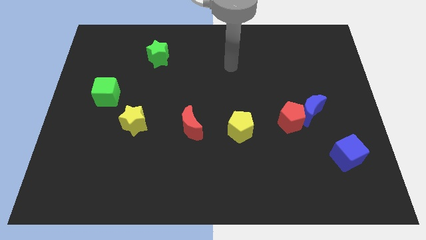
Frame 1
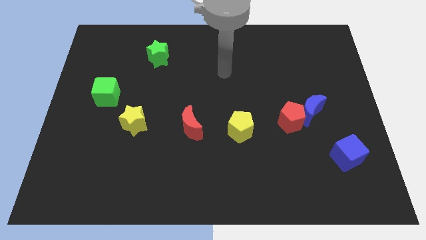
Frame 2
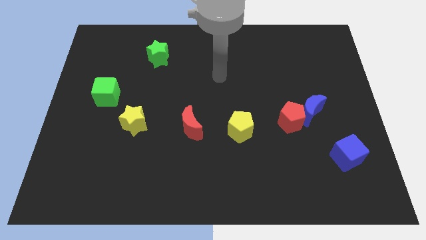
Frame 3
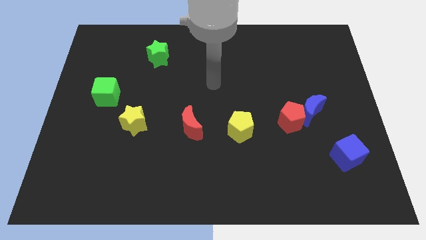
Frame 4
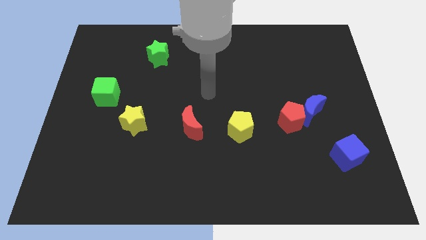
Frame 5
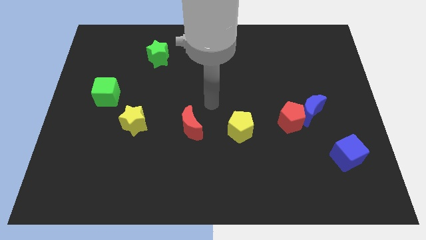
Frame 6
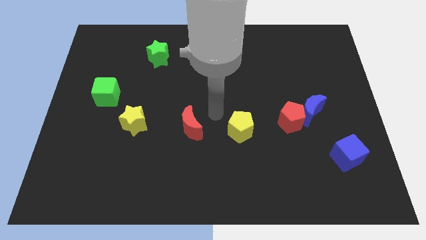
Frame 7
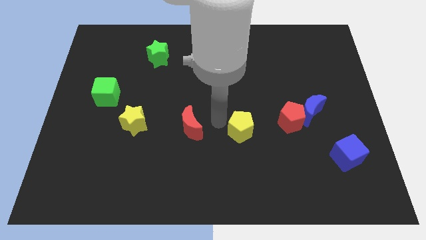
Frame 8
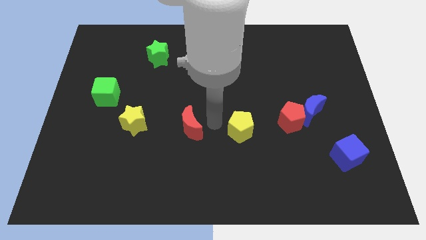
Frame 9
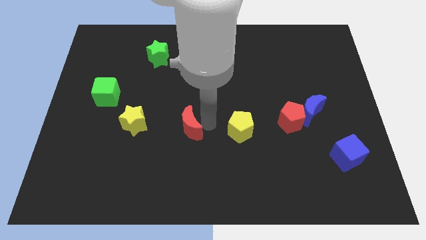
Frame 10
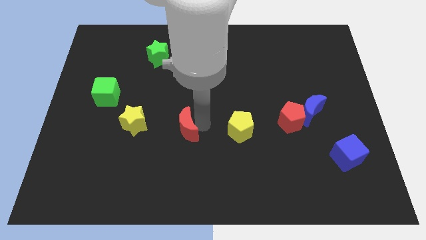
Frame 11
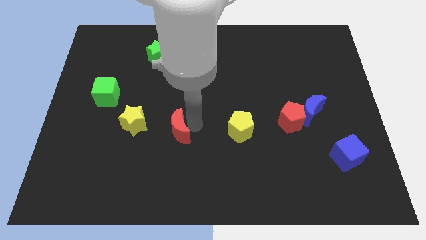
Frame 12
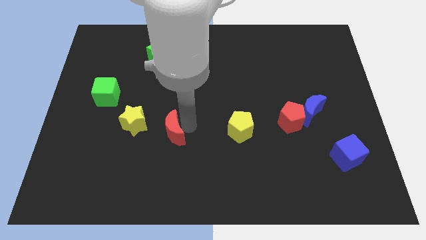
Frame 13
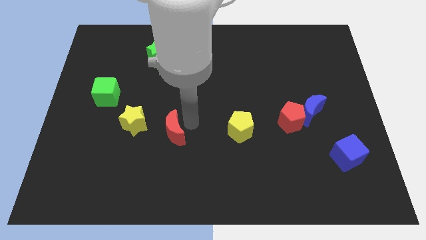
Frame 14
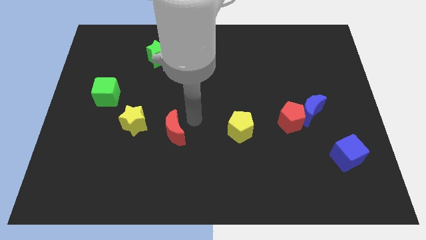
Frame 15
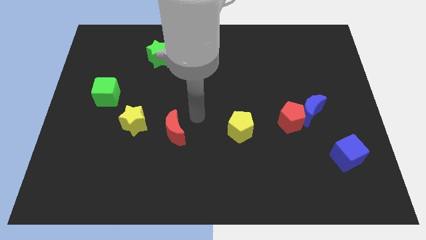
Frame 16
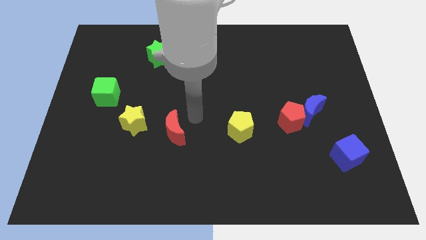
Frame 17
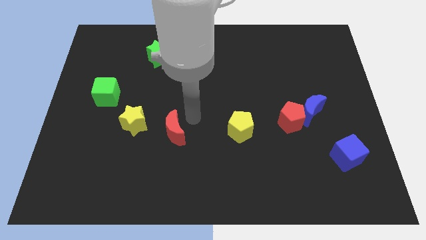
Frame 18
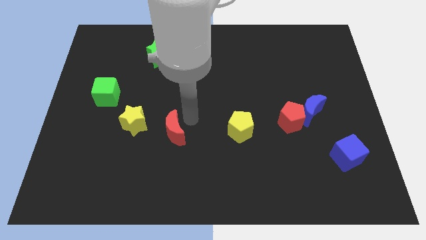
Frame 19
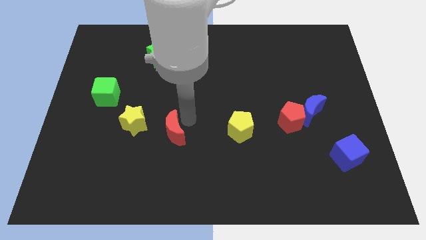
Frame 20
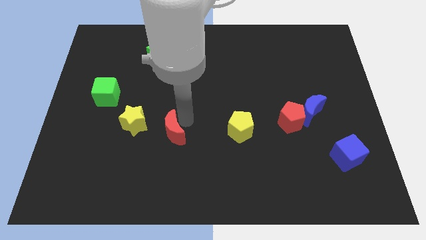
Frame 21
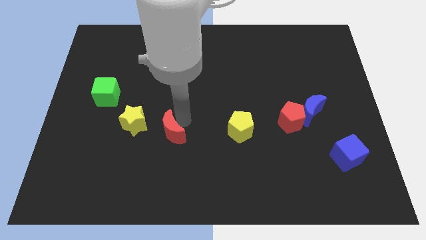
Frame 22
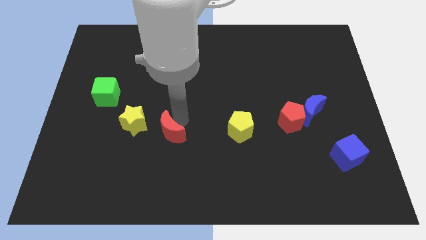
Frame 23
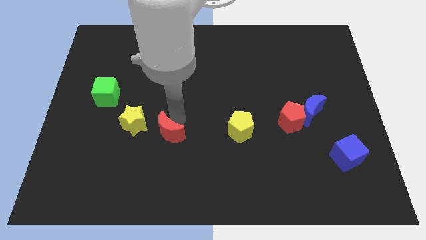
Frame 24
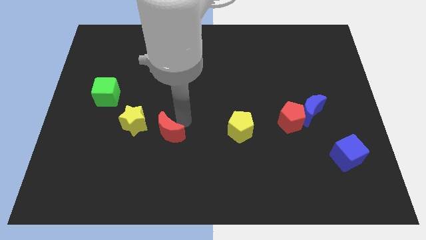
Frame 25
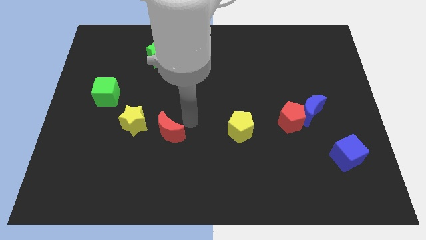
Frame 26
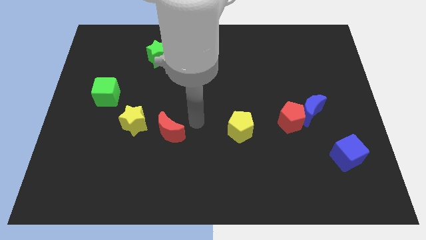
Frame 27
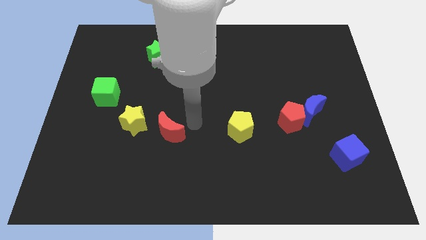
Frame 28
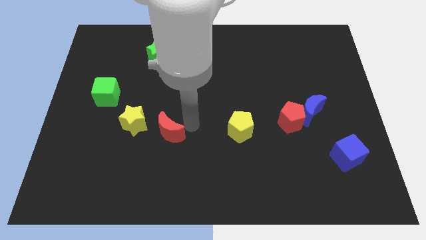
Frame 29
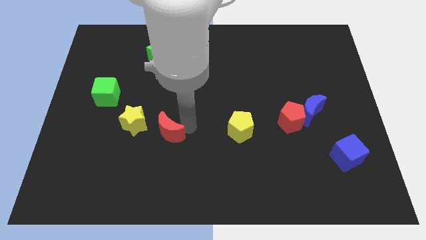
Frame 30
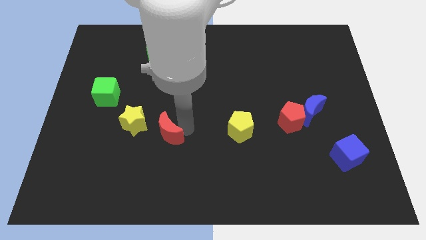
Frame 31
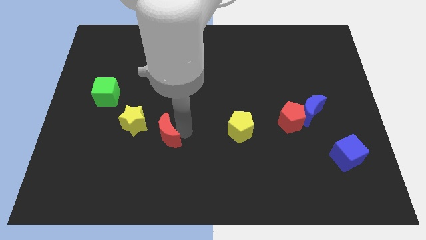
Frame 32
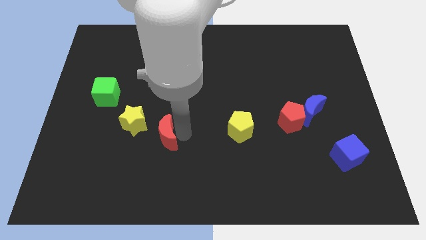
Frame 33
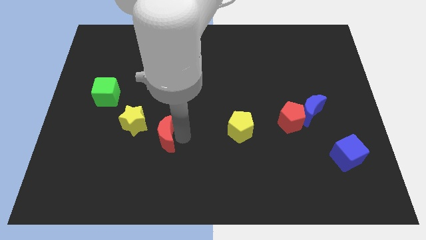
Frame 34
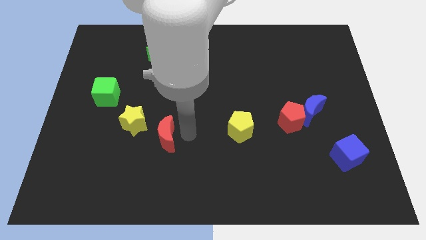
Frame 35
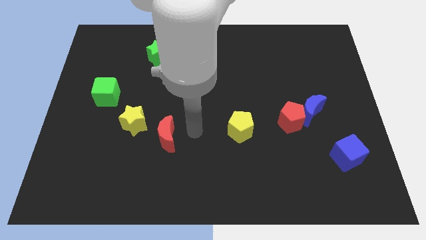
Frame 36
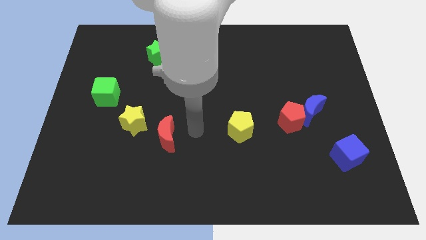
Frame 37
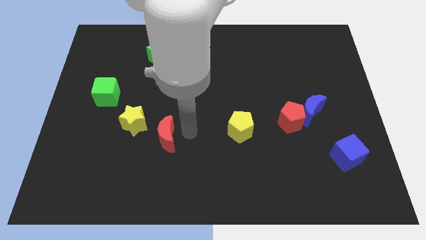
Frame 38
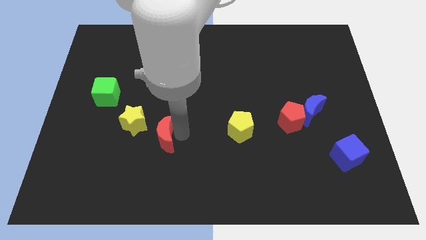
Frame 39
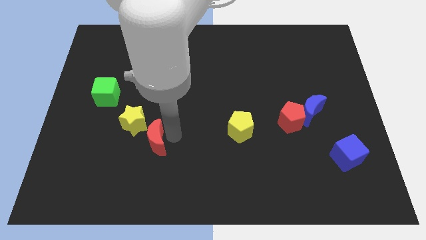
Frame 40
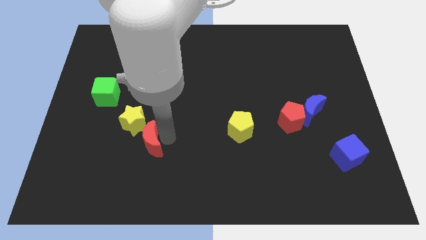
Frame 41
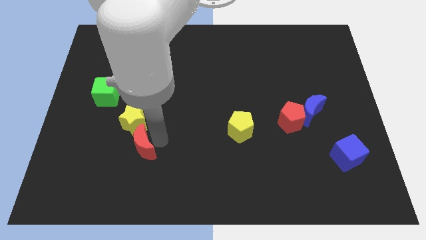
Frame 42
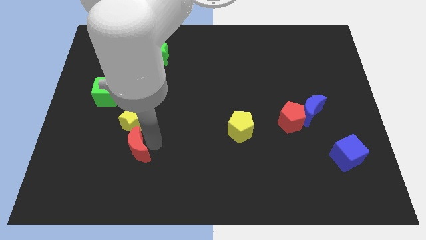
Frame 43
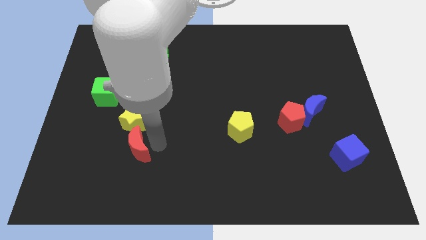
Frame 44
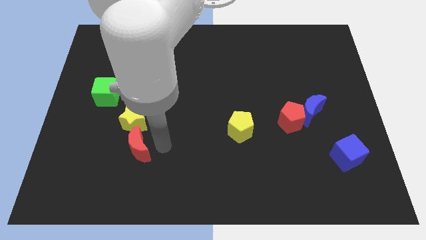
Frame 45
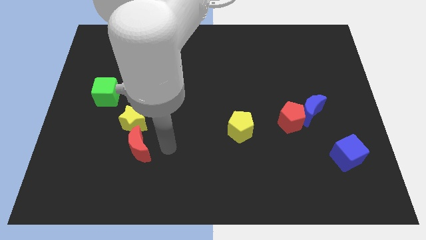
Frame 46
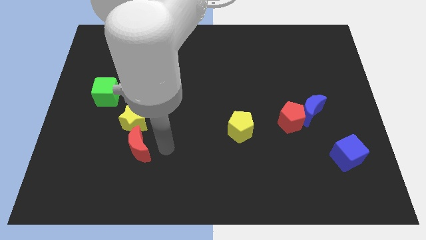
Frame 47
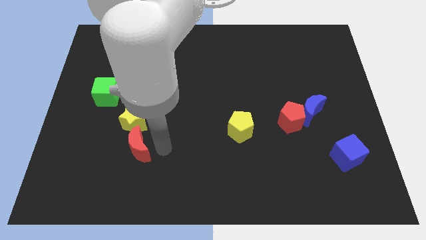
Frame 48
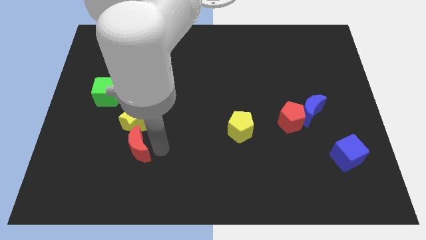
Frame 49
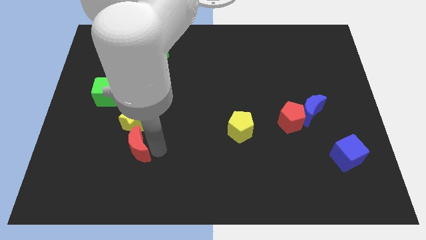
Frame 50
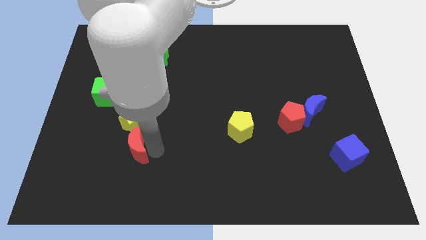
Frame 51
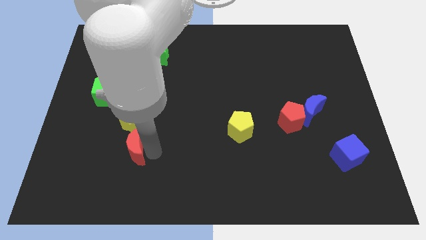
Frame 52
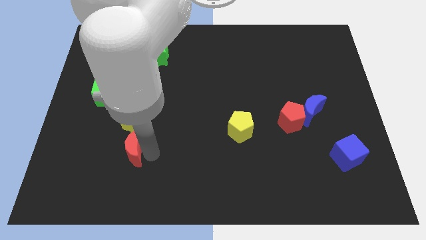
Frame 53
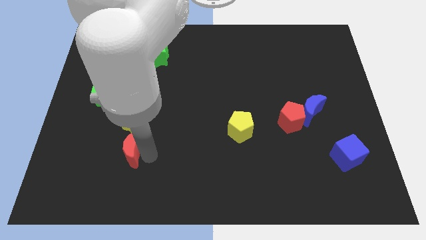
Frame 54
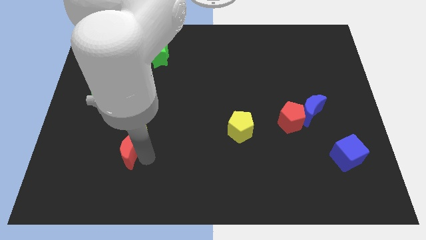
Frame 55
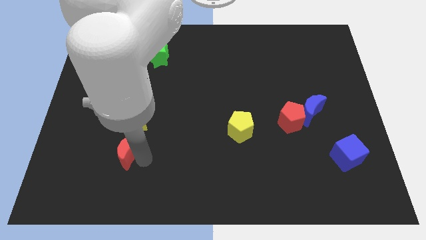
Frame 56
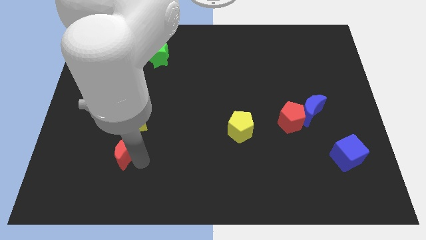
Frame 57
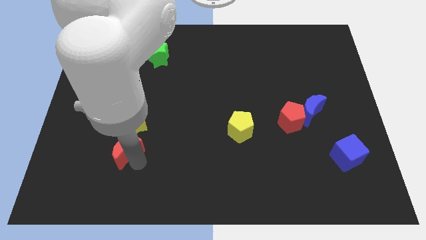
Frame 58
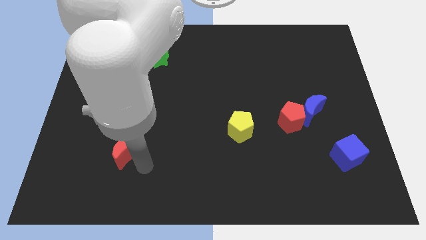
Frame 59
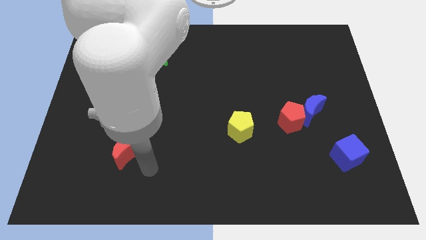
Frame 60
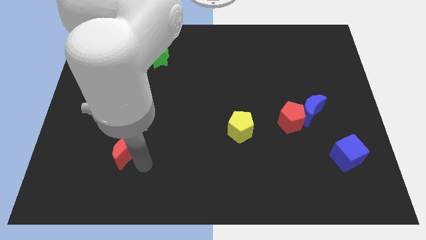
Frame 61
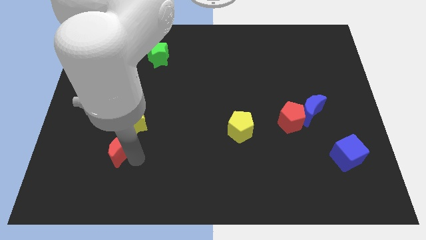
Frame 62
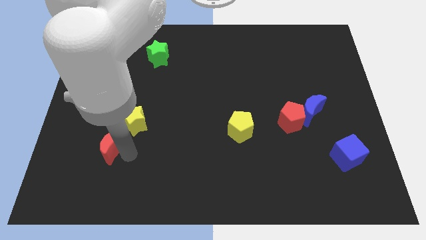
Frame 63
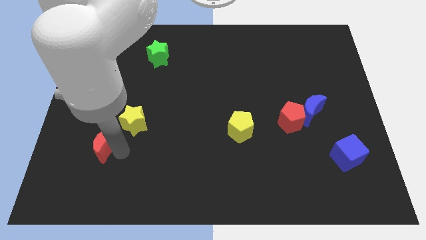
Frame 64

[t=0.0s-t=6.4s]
move the red moon to the bottom side of the green cube

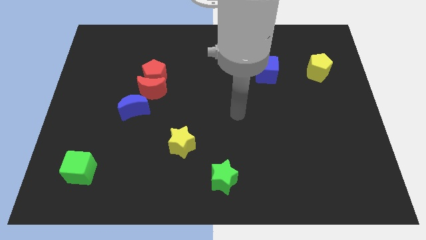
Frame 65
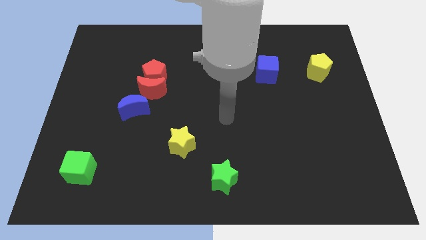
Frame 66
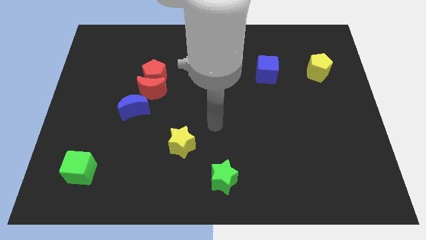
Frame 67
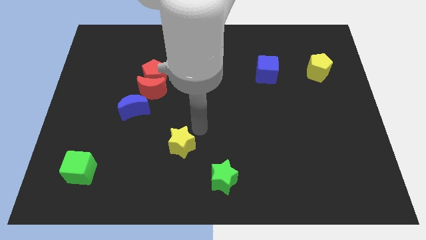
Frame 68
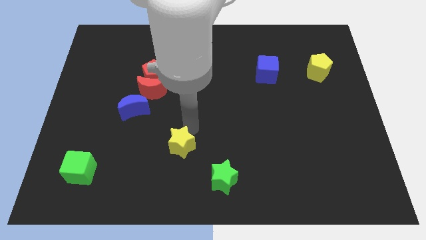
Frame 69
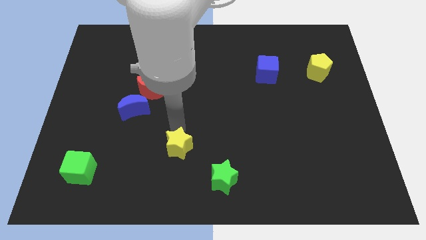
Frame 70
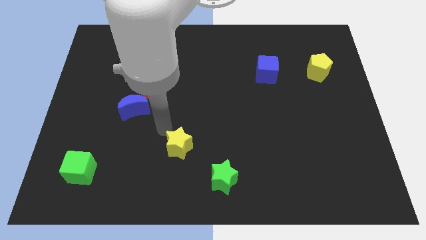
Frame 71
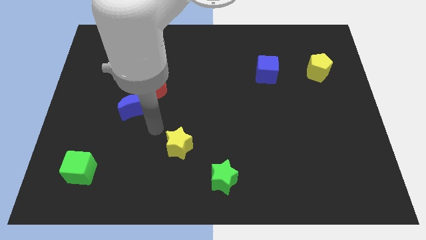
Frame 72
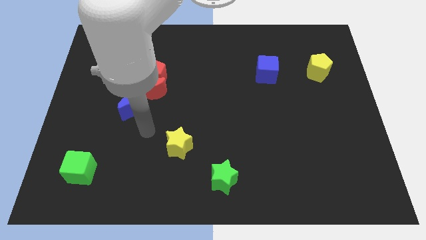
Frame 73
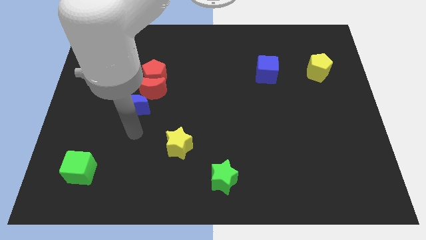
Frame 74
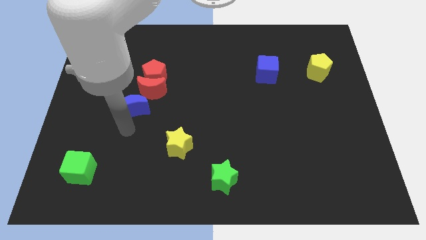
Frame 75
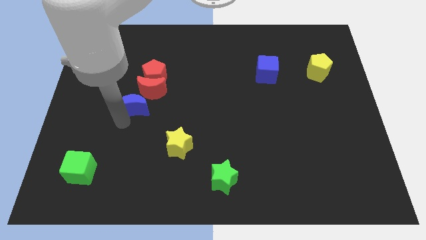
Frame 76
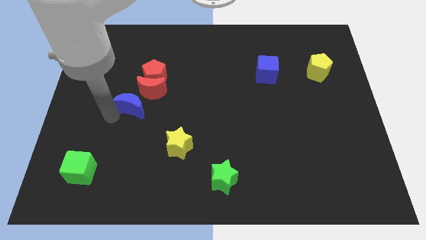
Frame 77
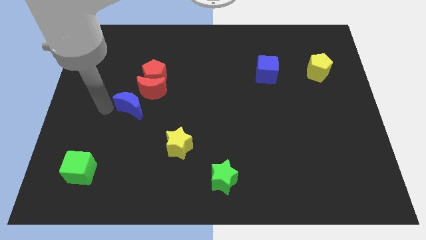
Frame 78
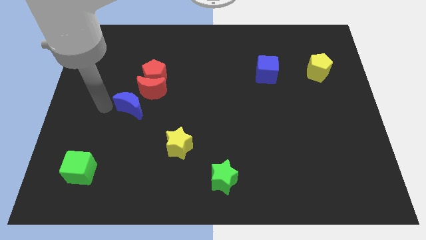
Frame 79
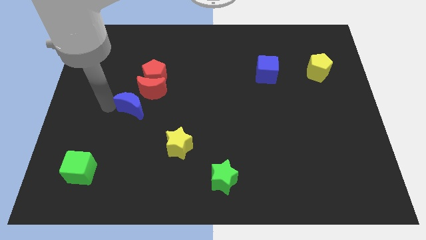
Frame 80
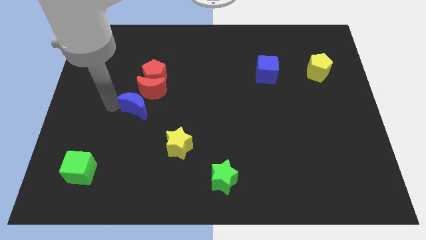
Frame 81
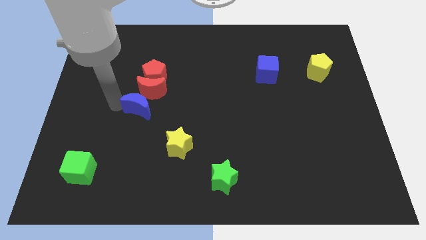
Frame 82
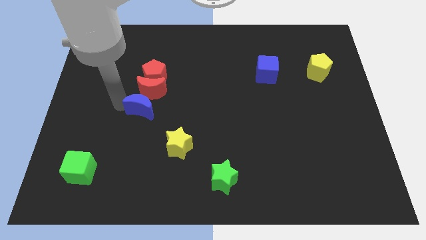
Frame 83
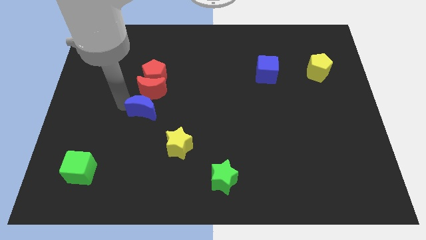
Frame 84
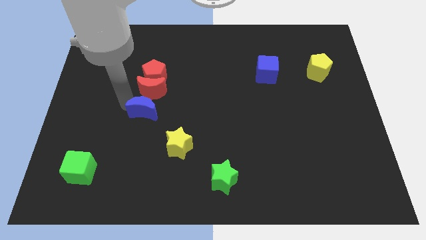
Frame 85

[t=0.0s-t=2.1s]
slide the blue moon to the bottom right of the red moon
